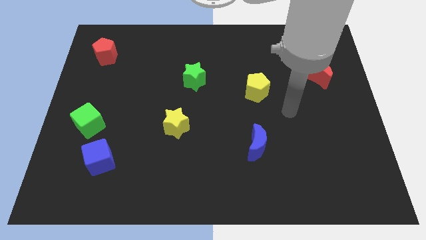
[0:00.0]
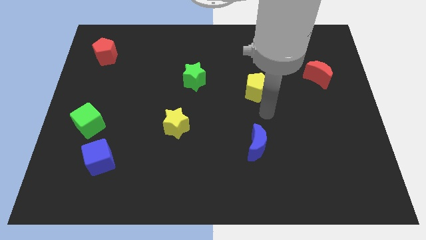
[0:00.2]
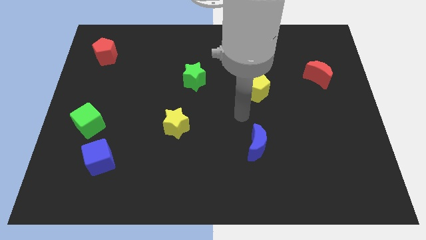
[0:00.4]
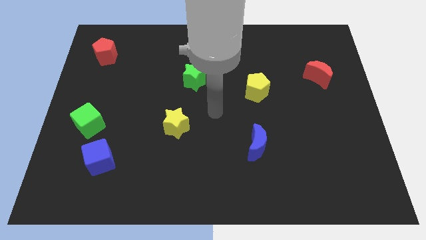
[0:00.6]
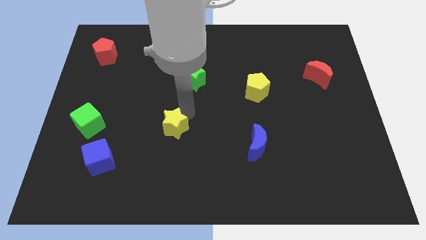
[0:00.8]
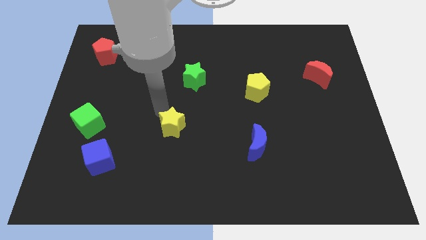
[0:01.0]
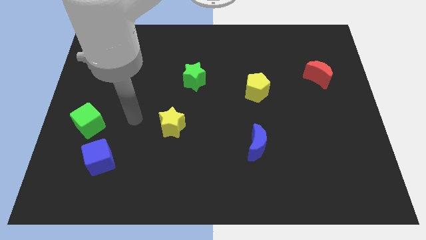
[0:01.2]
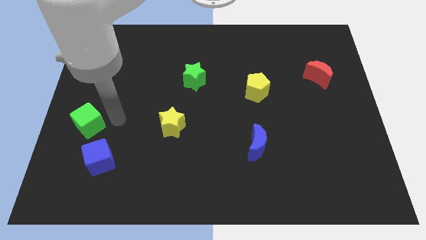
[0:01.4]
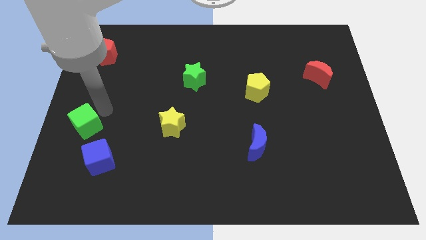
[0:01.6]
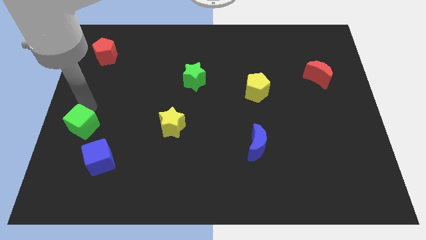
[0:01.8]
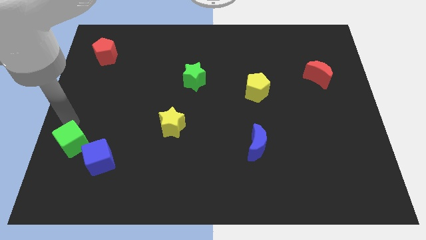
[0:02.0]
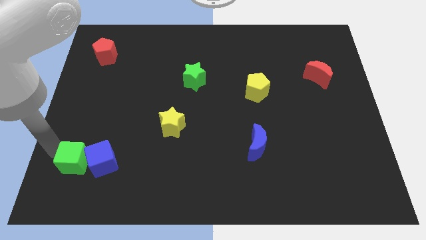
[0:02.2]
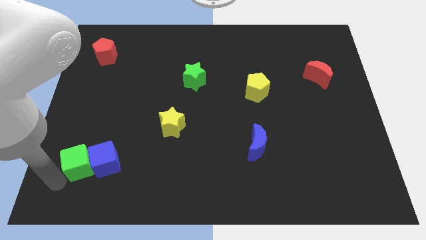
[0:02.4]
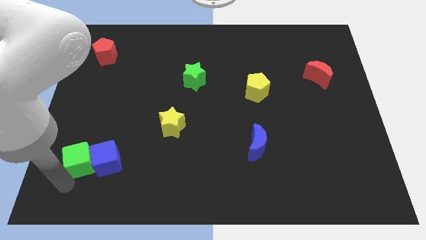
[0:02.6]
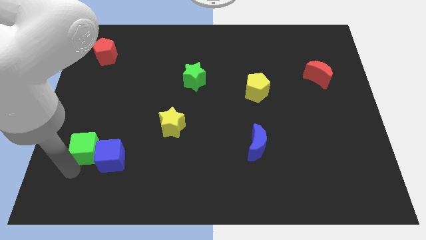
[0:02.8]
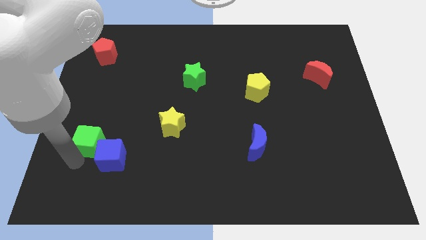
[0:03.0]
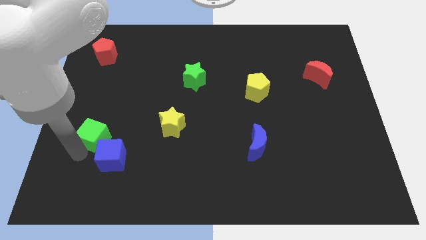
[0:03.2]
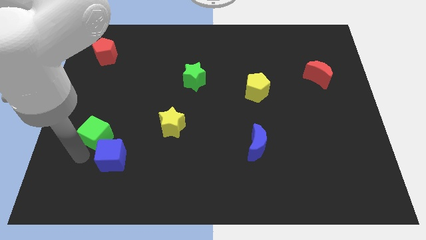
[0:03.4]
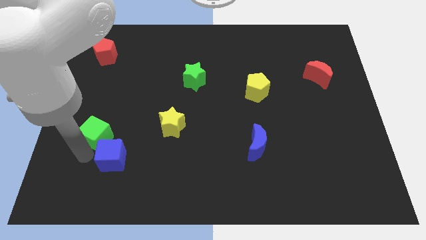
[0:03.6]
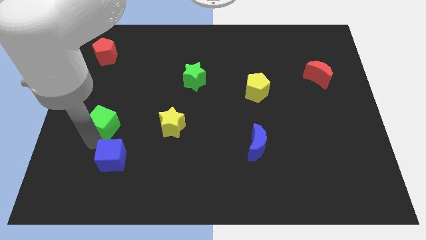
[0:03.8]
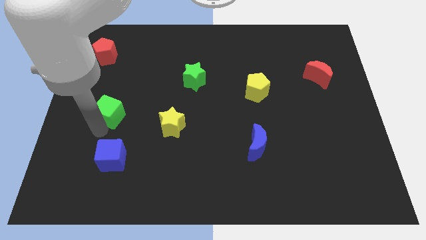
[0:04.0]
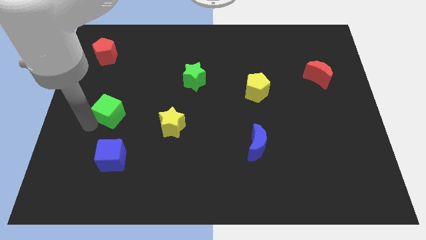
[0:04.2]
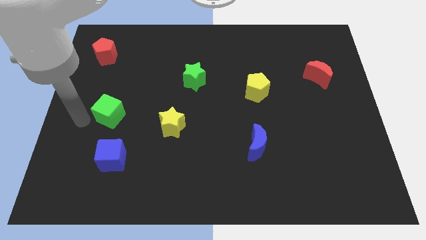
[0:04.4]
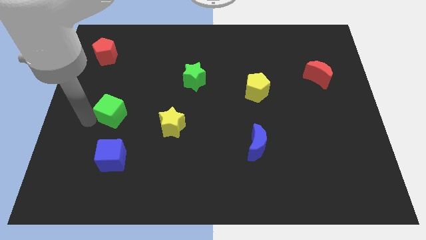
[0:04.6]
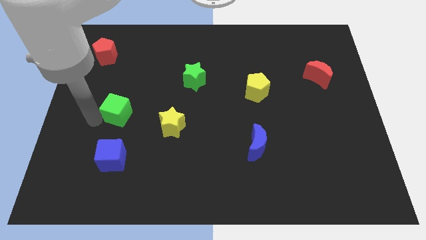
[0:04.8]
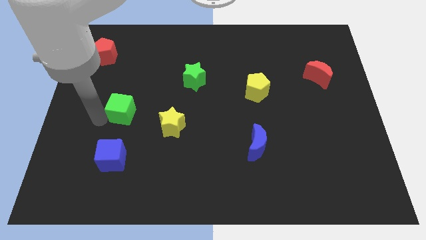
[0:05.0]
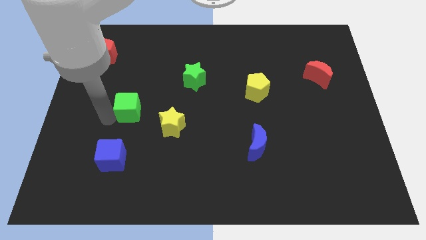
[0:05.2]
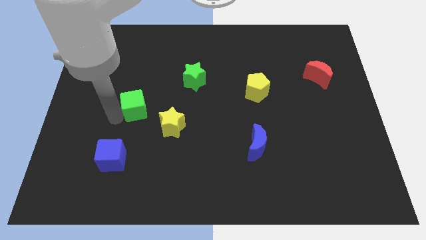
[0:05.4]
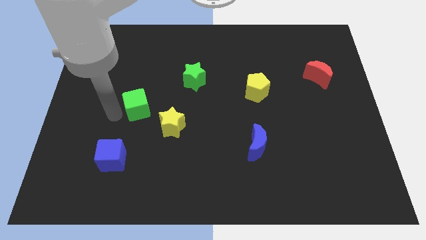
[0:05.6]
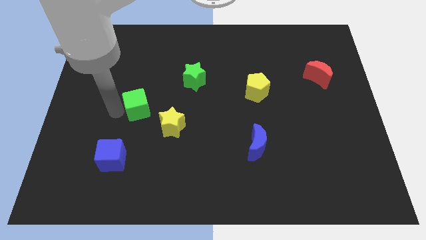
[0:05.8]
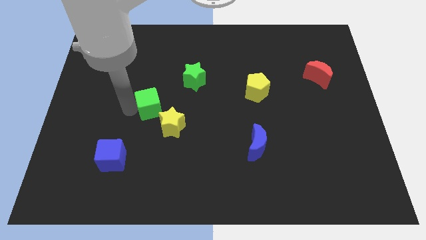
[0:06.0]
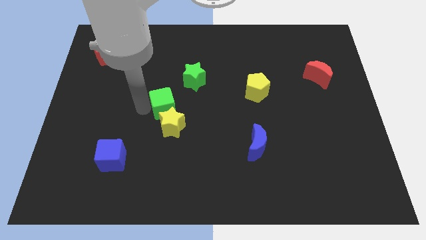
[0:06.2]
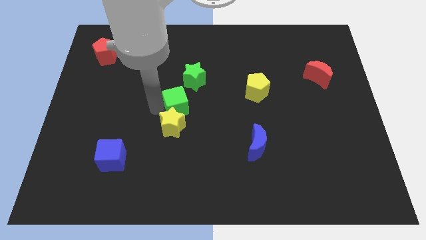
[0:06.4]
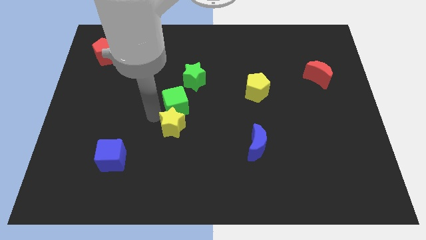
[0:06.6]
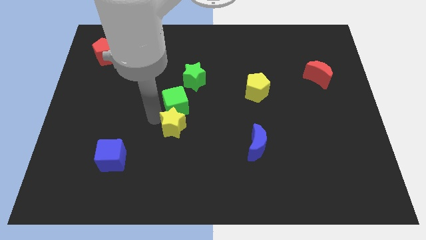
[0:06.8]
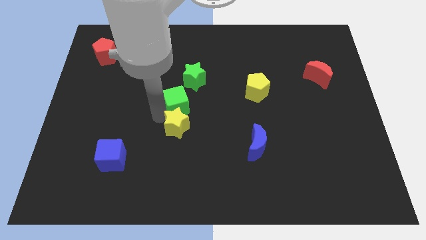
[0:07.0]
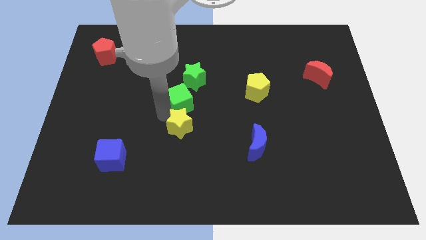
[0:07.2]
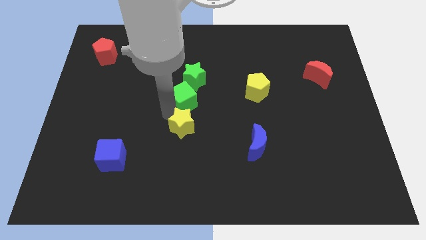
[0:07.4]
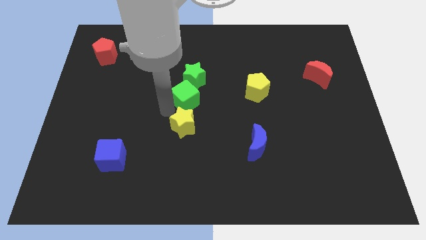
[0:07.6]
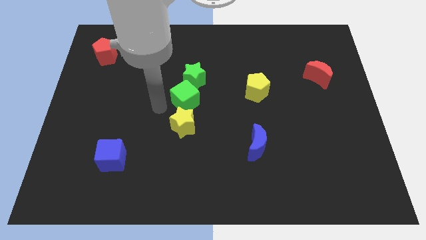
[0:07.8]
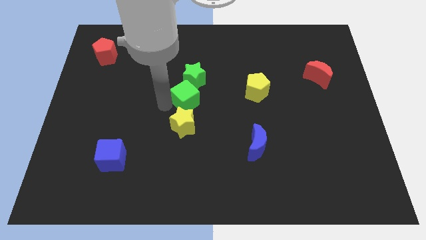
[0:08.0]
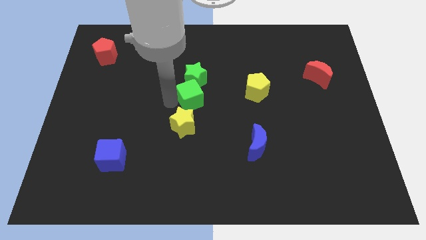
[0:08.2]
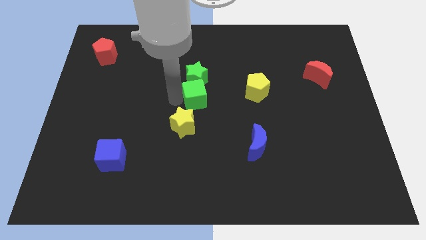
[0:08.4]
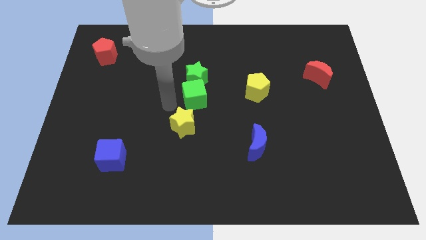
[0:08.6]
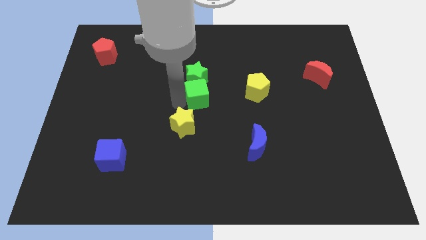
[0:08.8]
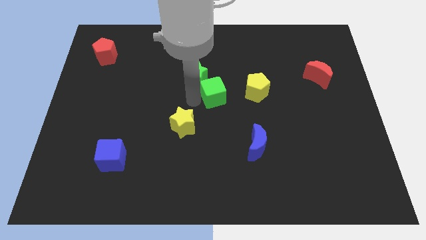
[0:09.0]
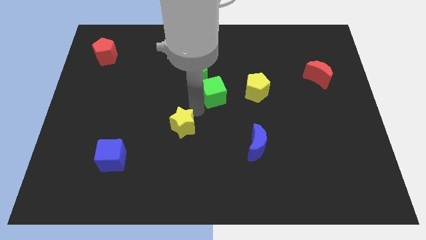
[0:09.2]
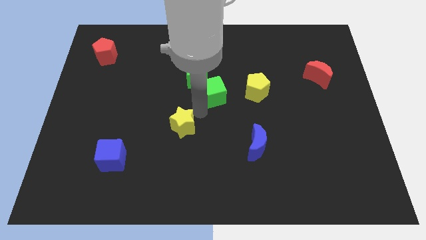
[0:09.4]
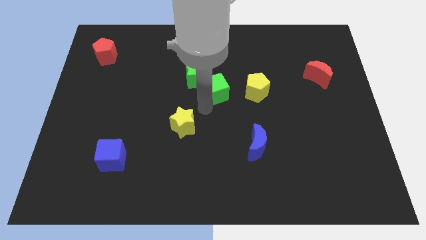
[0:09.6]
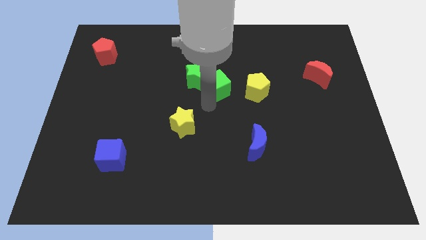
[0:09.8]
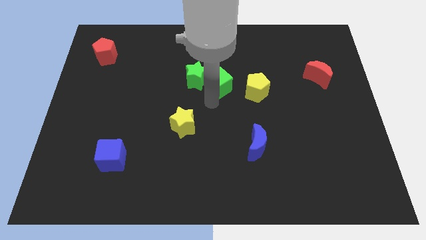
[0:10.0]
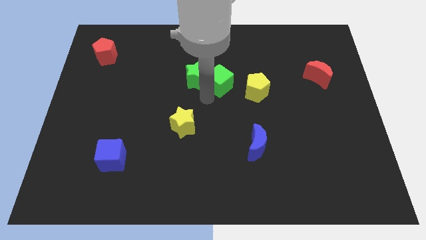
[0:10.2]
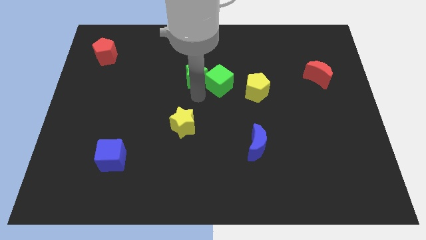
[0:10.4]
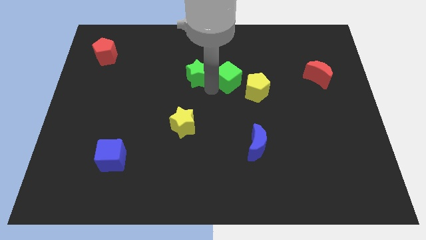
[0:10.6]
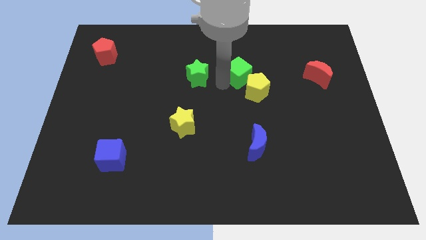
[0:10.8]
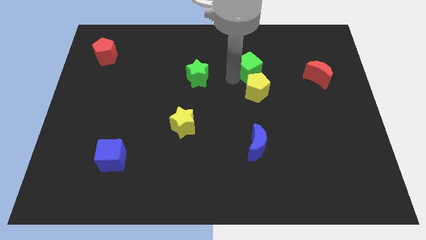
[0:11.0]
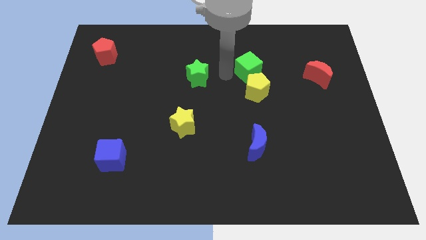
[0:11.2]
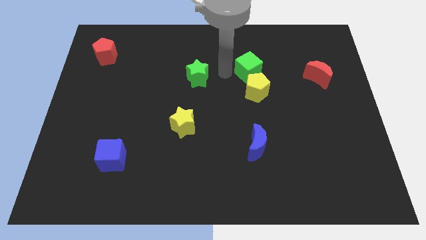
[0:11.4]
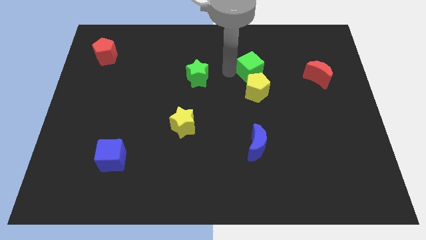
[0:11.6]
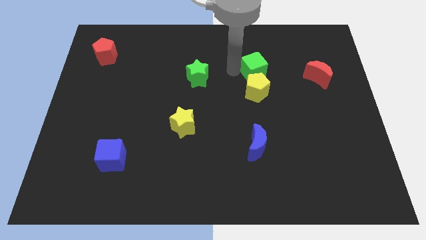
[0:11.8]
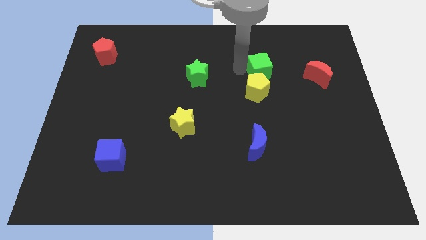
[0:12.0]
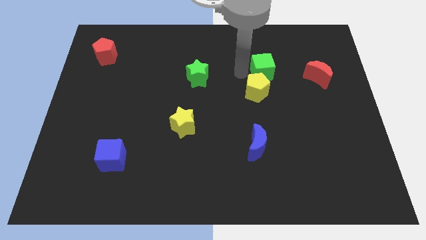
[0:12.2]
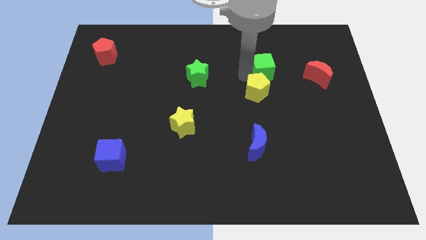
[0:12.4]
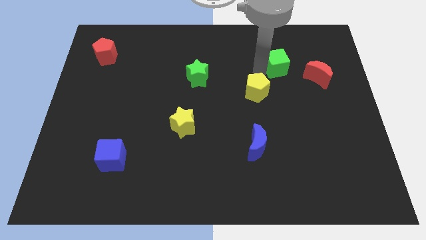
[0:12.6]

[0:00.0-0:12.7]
put the green cube to the top left side of the red moon

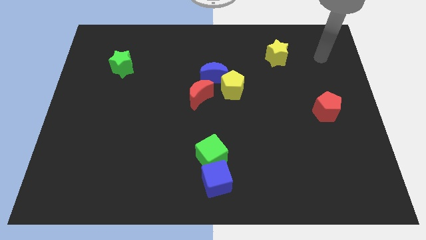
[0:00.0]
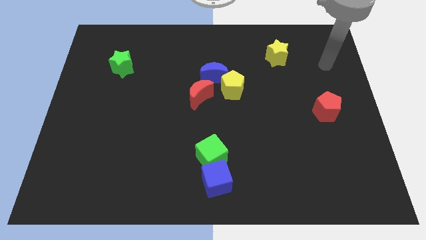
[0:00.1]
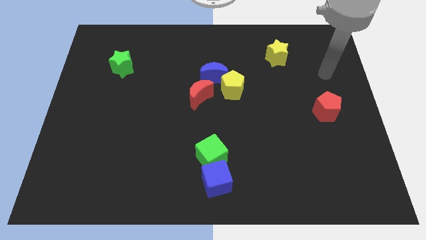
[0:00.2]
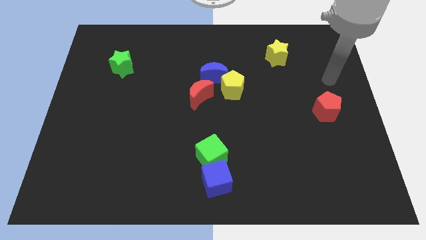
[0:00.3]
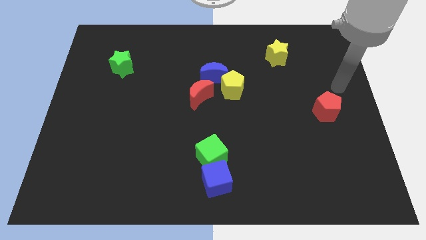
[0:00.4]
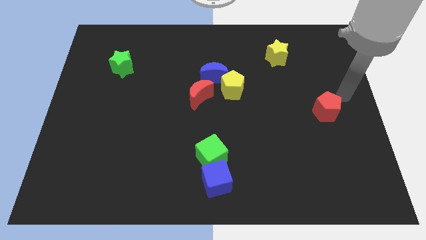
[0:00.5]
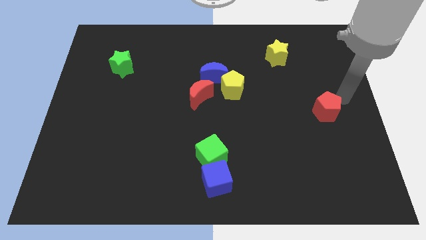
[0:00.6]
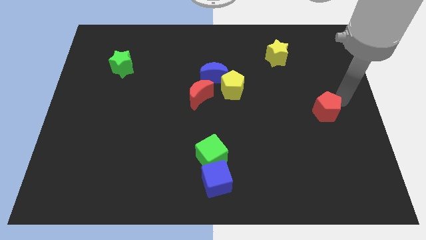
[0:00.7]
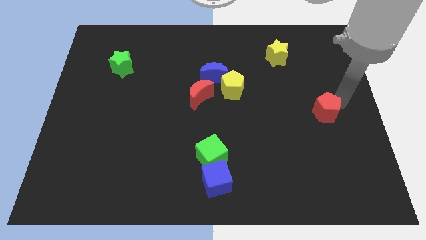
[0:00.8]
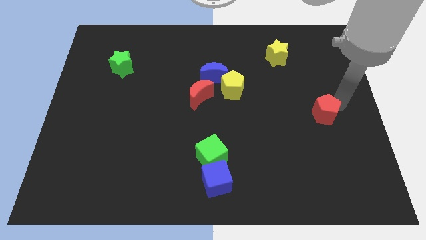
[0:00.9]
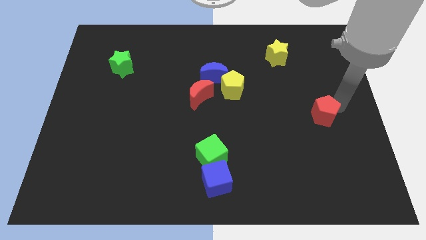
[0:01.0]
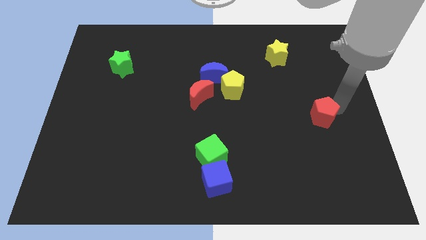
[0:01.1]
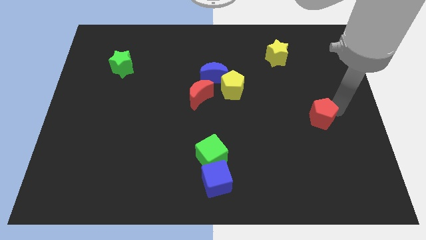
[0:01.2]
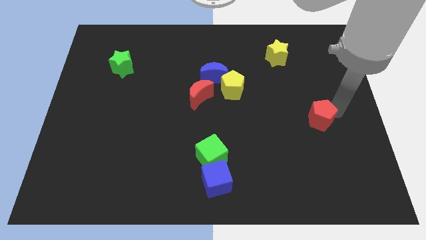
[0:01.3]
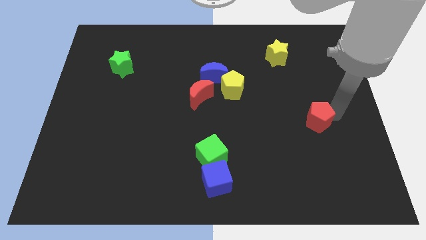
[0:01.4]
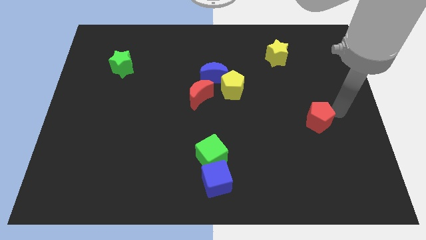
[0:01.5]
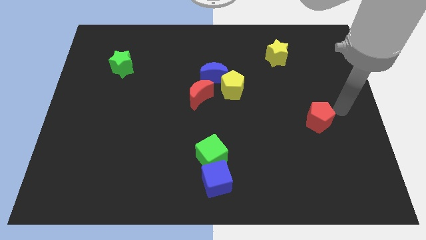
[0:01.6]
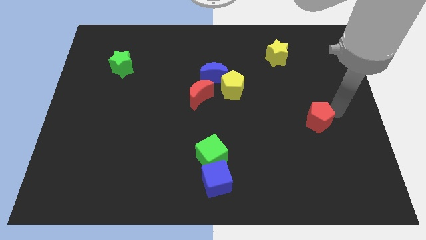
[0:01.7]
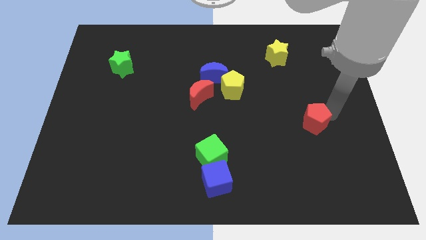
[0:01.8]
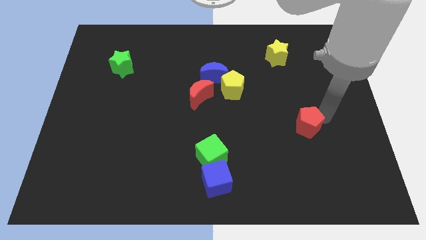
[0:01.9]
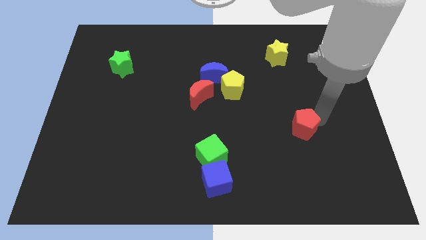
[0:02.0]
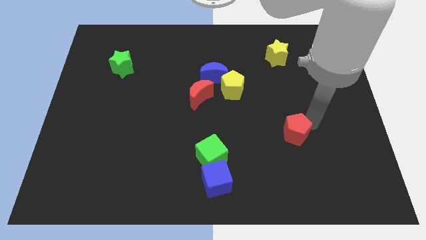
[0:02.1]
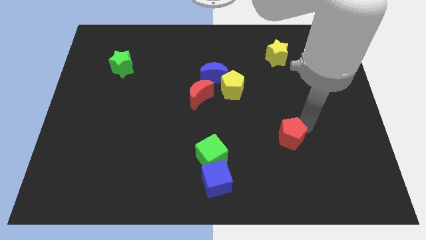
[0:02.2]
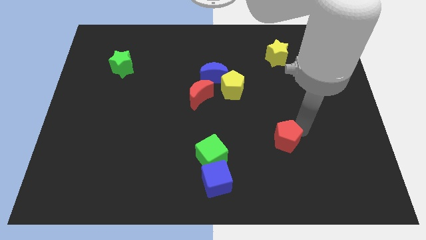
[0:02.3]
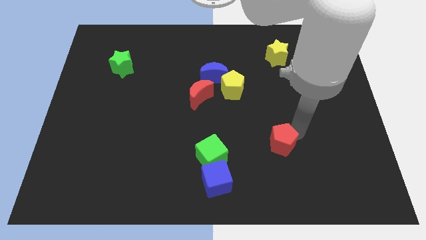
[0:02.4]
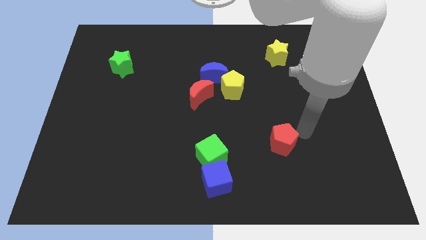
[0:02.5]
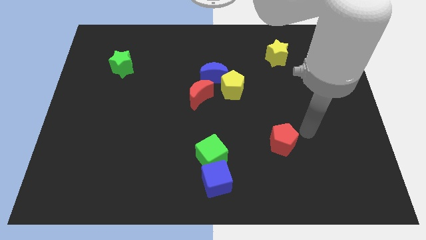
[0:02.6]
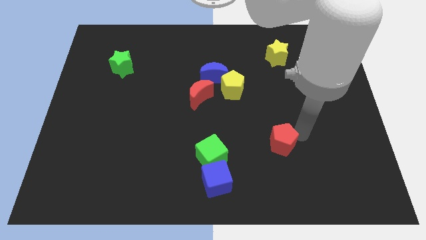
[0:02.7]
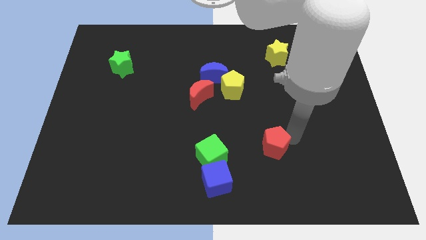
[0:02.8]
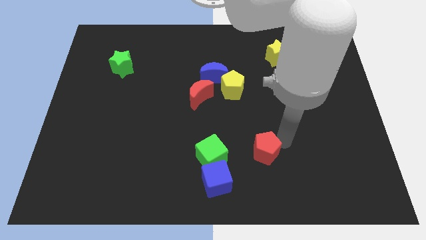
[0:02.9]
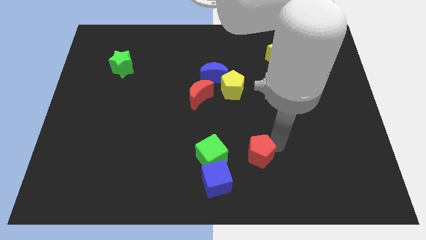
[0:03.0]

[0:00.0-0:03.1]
put the red pentagon diagonally up and to the right of the blue cube
